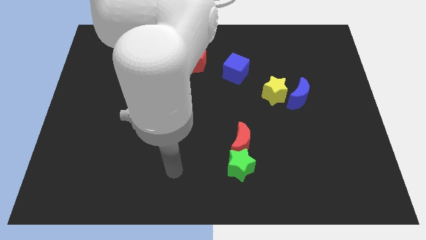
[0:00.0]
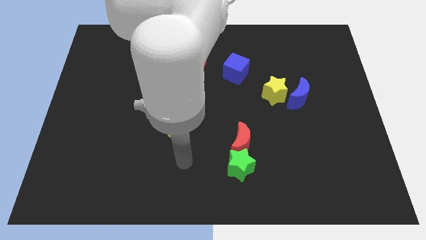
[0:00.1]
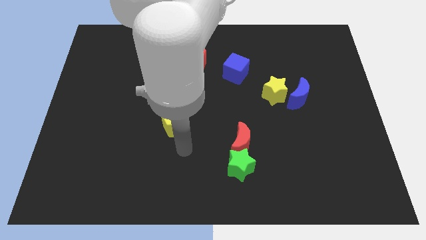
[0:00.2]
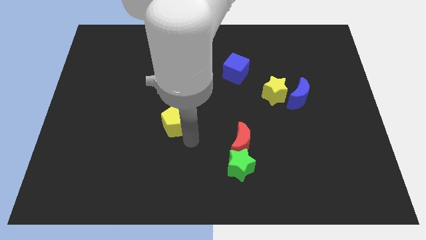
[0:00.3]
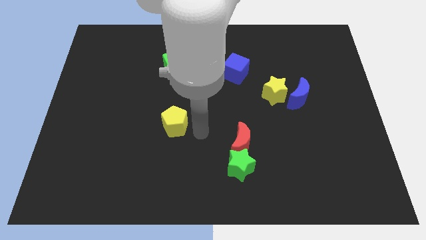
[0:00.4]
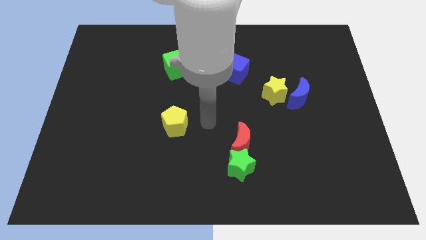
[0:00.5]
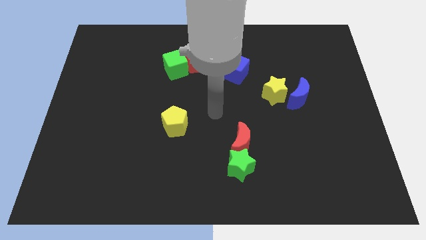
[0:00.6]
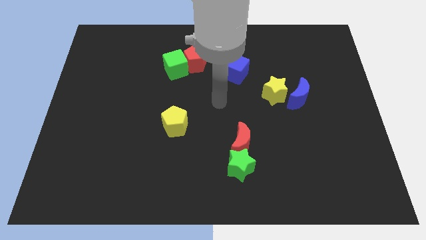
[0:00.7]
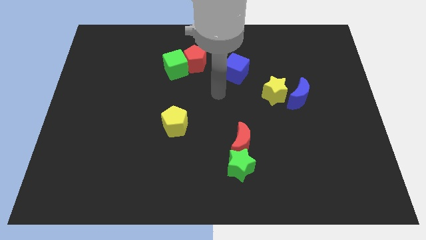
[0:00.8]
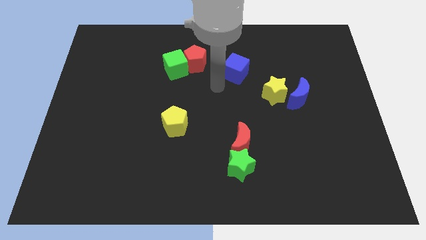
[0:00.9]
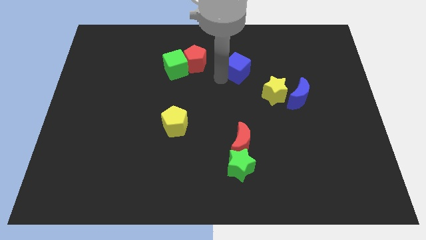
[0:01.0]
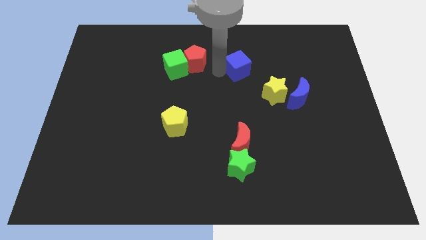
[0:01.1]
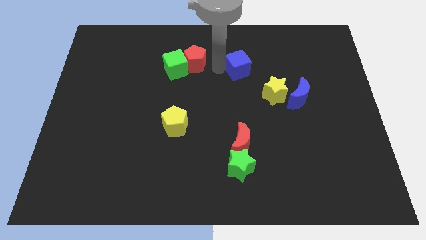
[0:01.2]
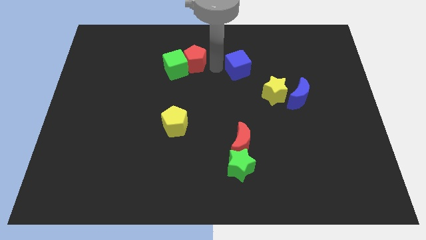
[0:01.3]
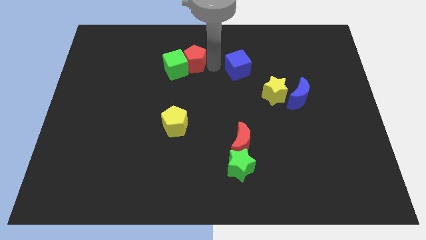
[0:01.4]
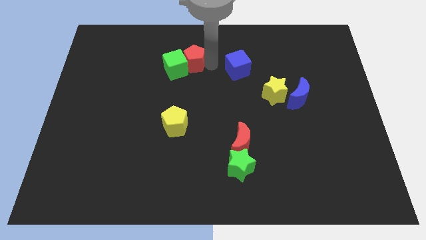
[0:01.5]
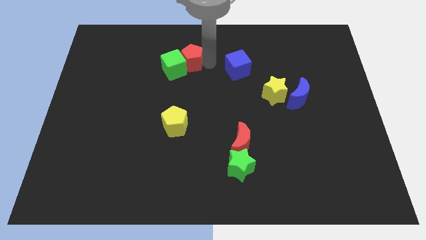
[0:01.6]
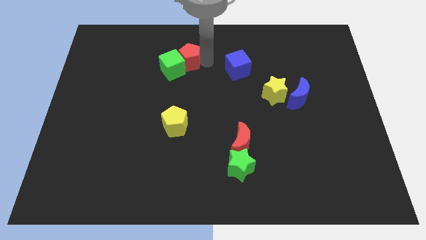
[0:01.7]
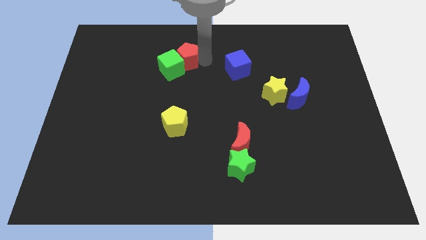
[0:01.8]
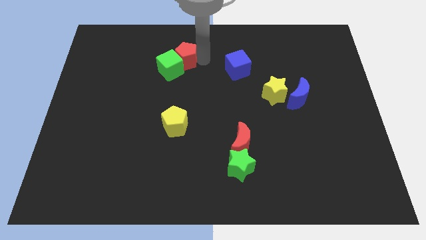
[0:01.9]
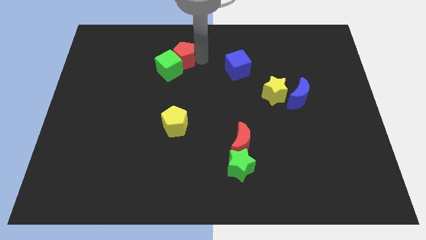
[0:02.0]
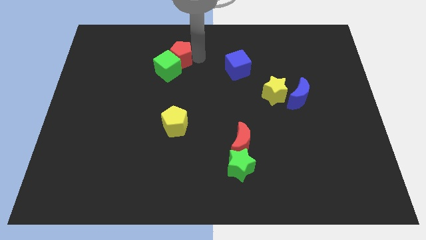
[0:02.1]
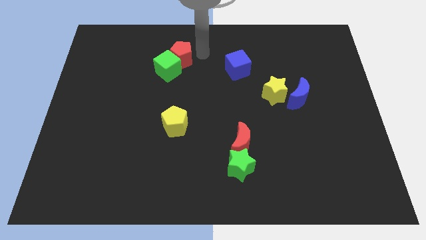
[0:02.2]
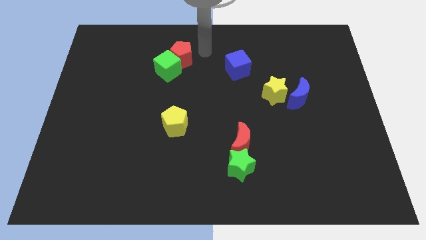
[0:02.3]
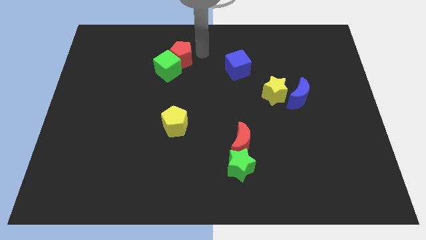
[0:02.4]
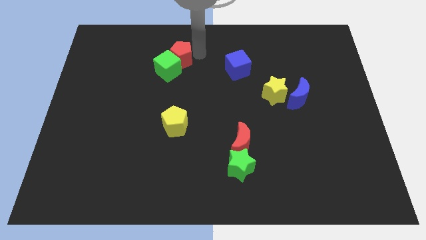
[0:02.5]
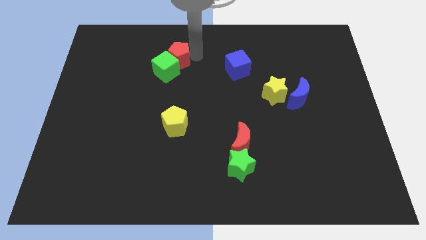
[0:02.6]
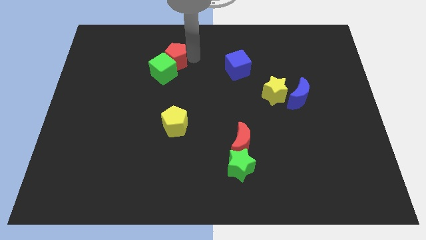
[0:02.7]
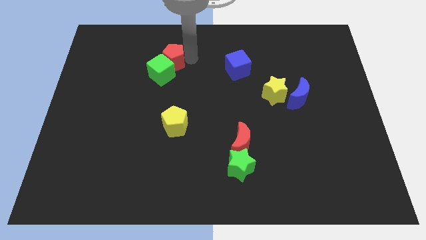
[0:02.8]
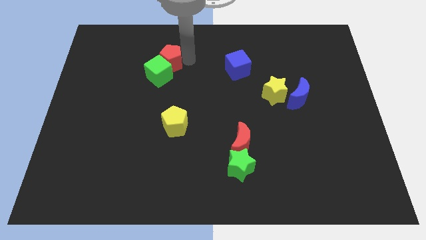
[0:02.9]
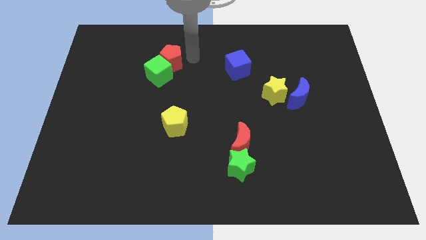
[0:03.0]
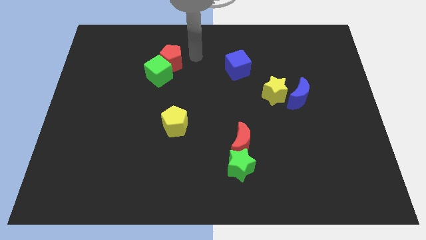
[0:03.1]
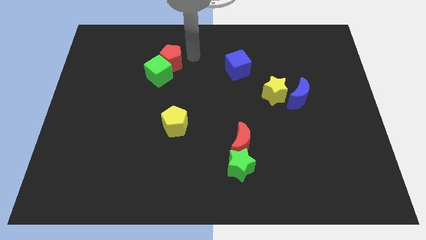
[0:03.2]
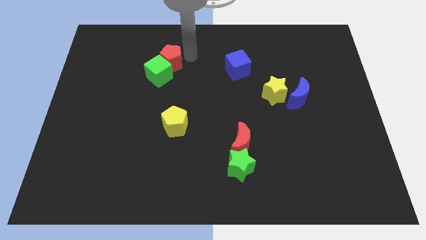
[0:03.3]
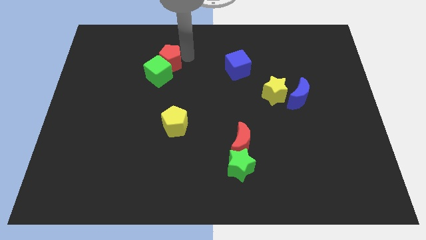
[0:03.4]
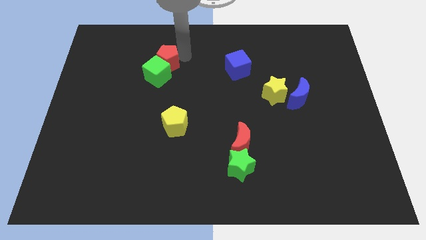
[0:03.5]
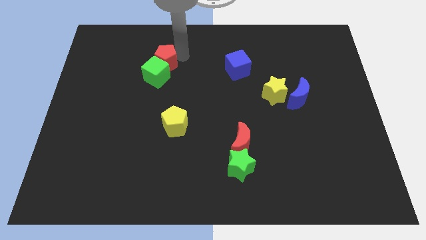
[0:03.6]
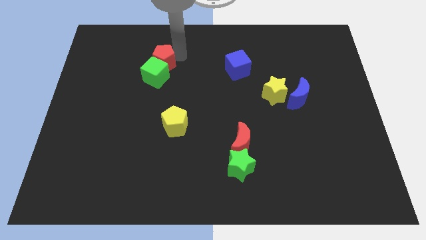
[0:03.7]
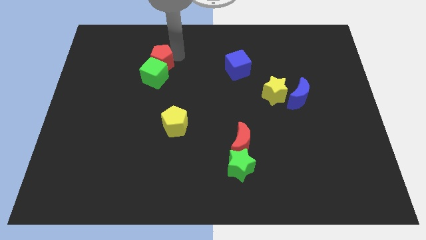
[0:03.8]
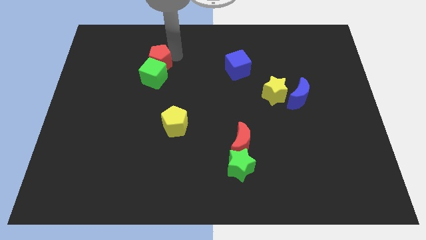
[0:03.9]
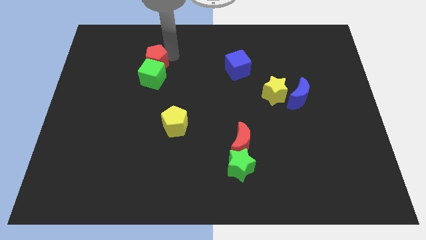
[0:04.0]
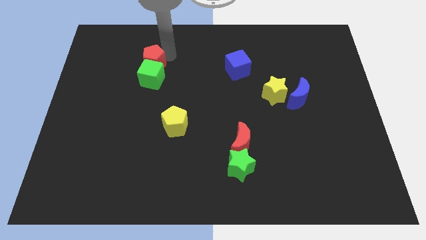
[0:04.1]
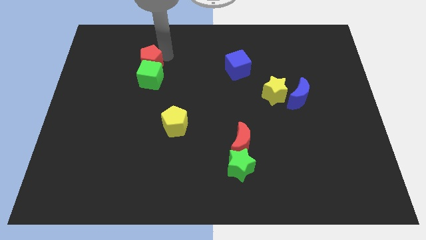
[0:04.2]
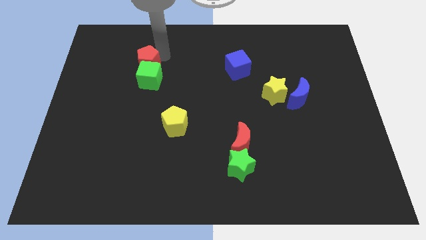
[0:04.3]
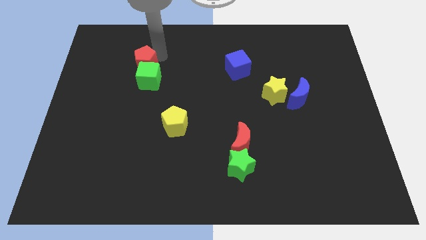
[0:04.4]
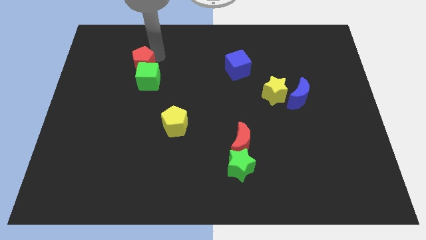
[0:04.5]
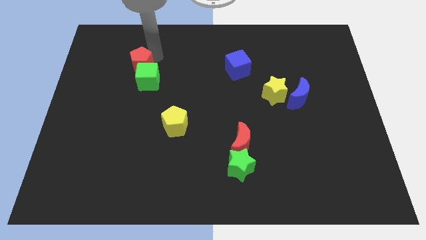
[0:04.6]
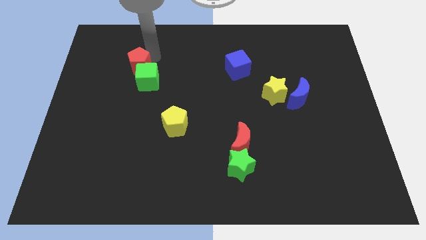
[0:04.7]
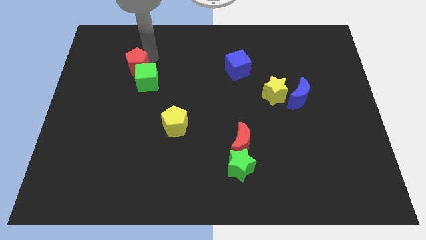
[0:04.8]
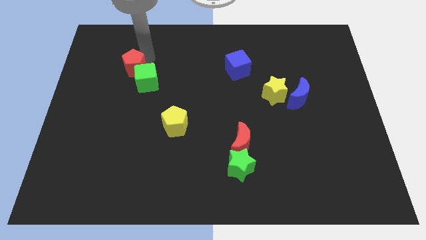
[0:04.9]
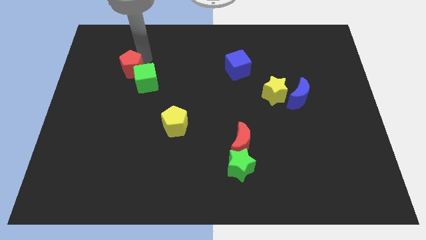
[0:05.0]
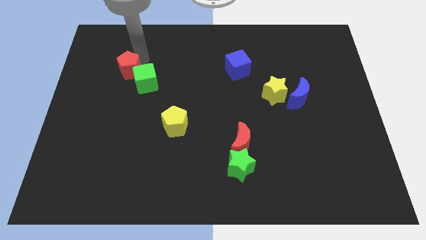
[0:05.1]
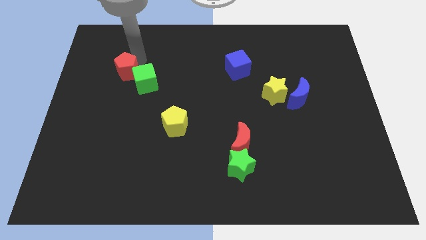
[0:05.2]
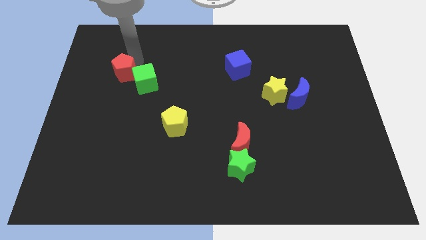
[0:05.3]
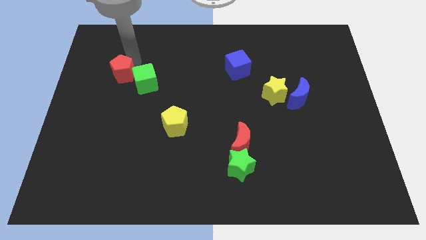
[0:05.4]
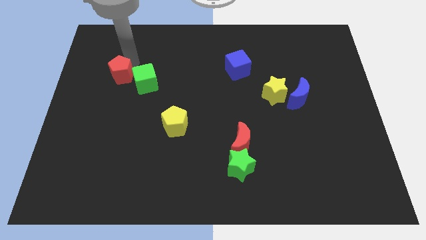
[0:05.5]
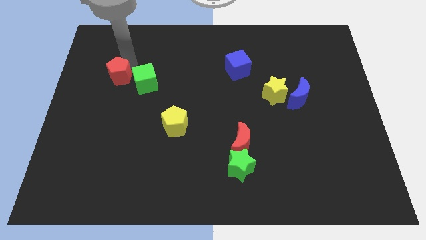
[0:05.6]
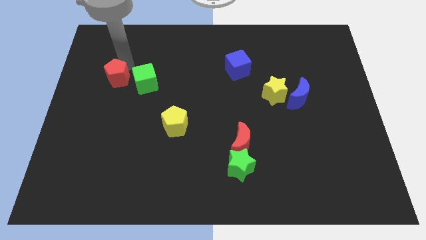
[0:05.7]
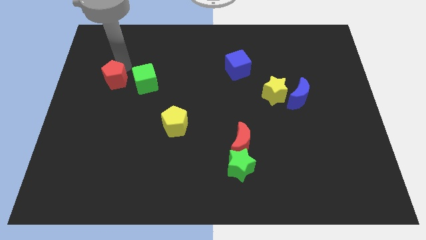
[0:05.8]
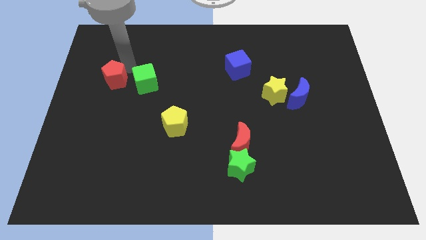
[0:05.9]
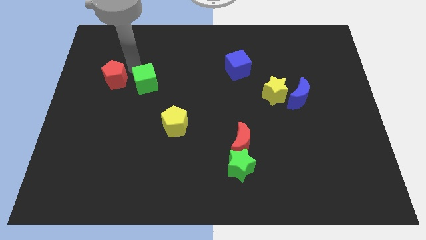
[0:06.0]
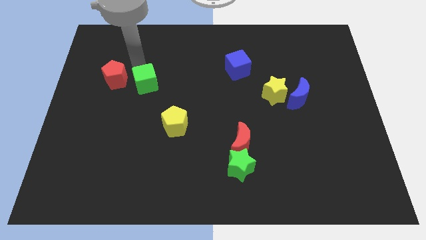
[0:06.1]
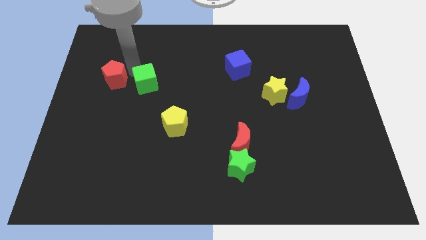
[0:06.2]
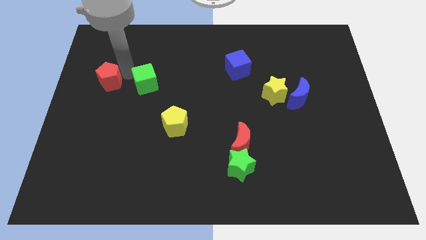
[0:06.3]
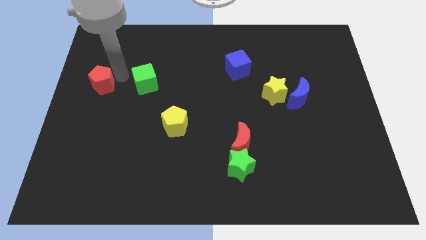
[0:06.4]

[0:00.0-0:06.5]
move the red pentagon to the left side
